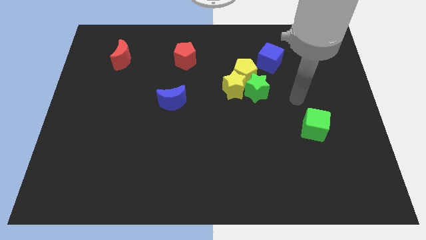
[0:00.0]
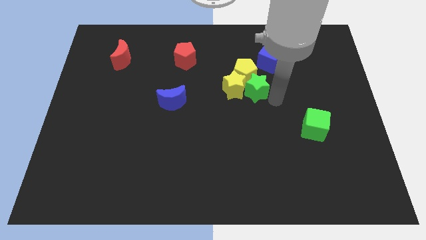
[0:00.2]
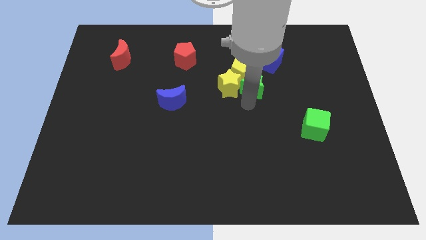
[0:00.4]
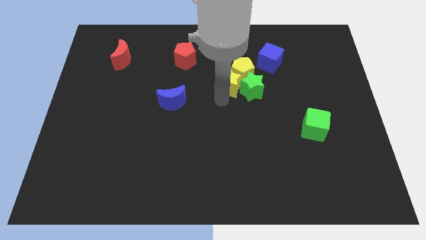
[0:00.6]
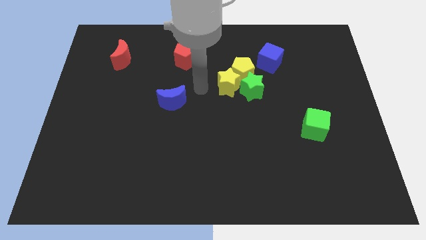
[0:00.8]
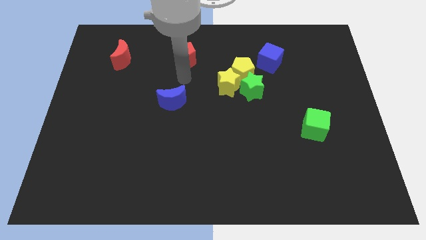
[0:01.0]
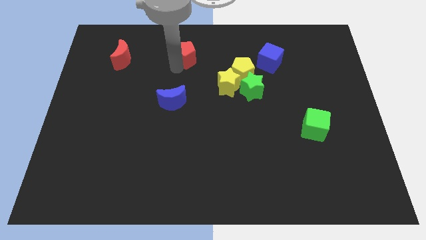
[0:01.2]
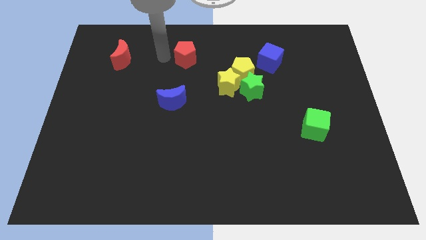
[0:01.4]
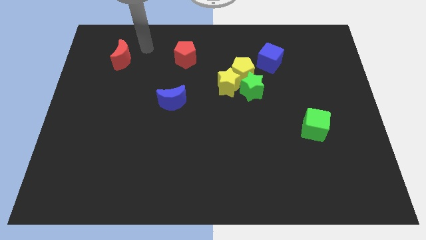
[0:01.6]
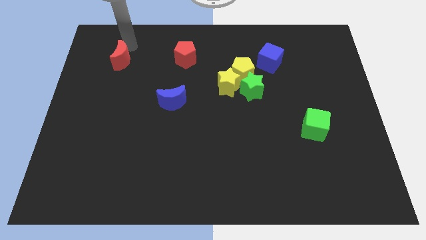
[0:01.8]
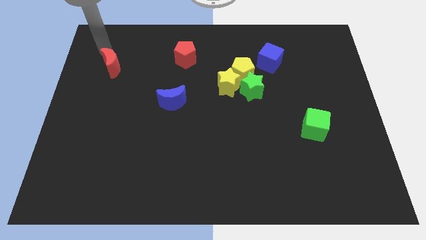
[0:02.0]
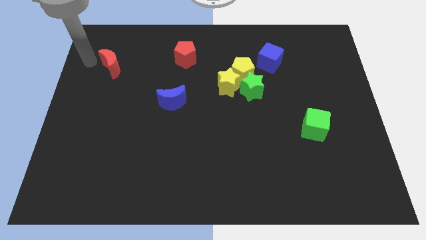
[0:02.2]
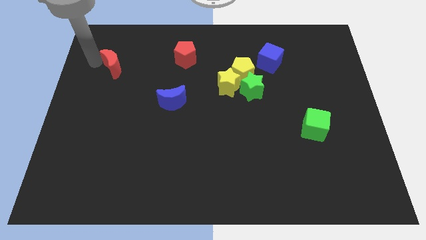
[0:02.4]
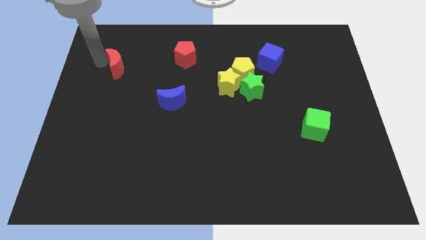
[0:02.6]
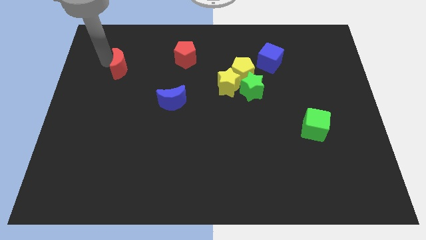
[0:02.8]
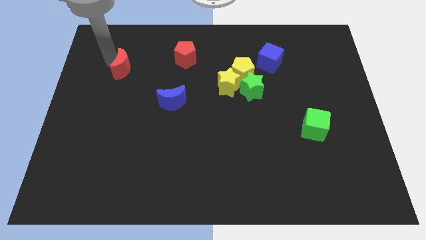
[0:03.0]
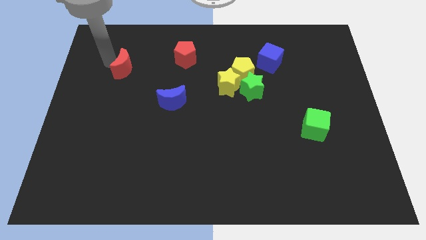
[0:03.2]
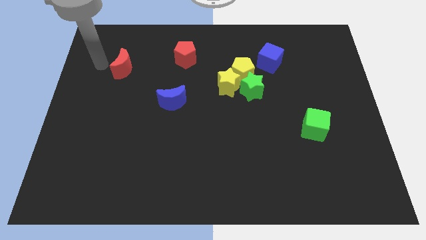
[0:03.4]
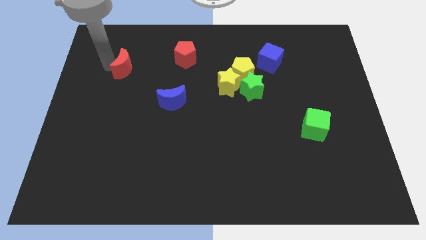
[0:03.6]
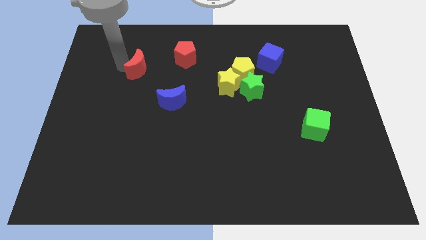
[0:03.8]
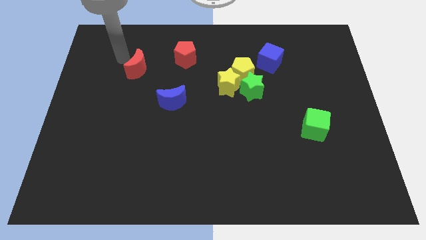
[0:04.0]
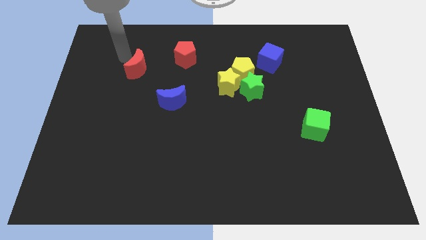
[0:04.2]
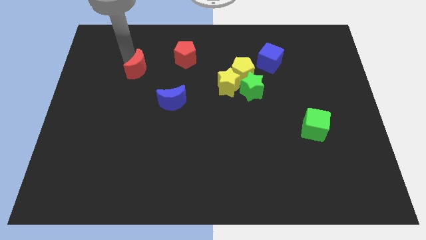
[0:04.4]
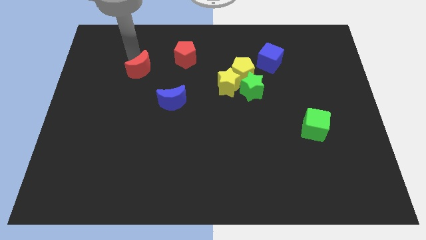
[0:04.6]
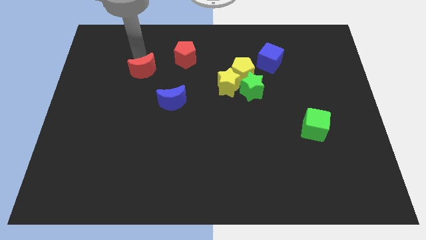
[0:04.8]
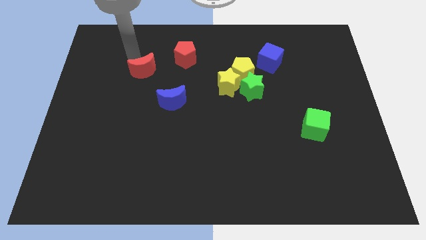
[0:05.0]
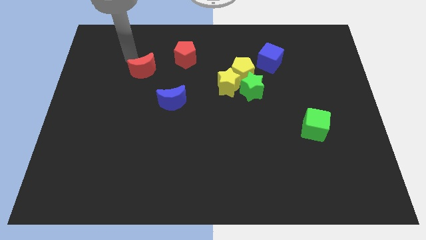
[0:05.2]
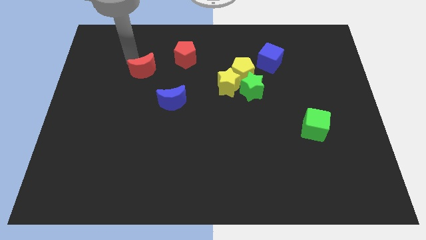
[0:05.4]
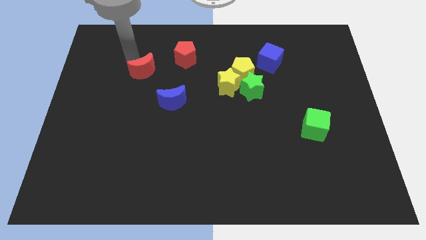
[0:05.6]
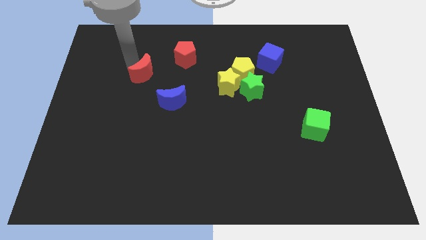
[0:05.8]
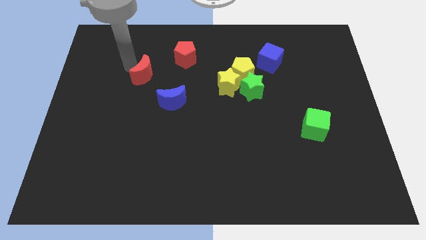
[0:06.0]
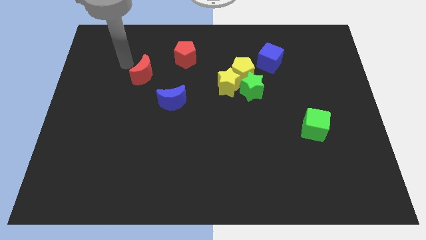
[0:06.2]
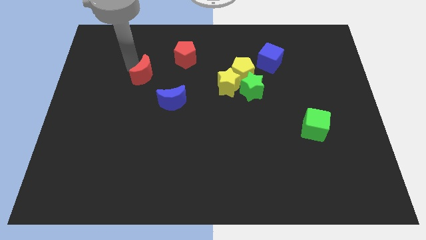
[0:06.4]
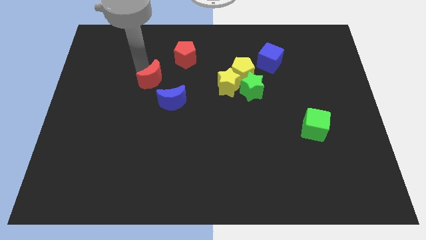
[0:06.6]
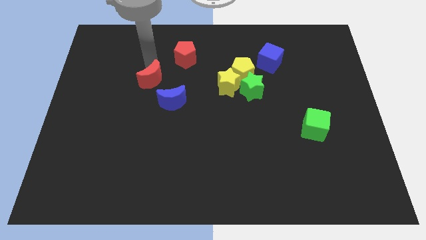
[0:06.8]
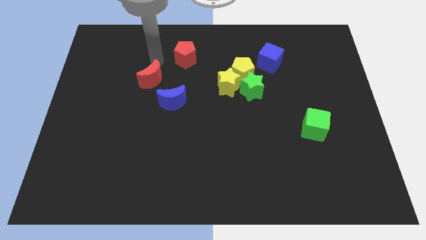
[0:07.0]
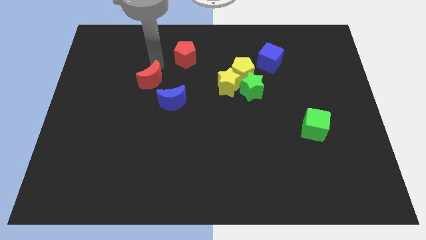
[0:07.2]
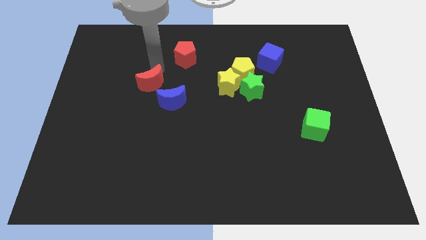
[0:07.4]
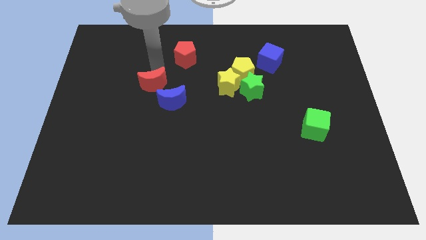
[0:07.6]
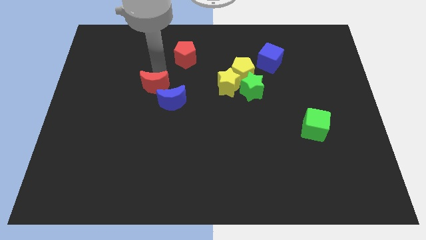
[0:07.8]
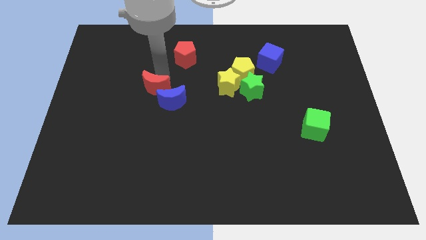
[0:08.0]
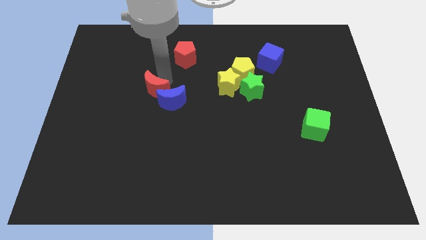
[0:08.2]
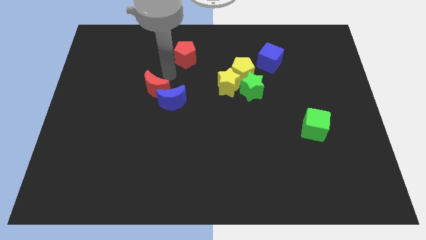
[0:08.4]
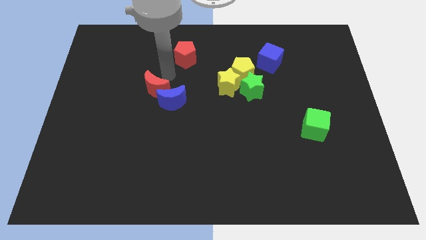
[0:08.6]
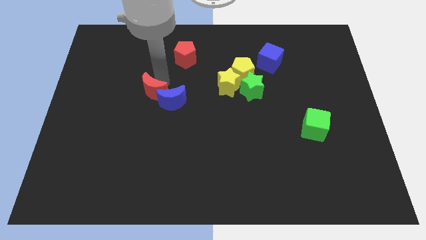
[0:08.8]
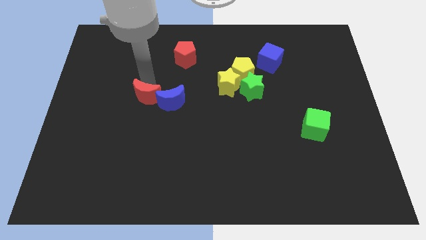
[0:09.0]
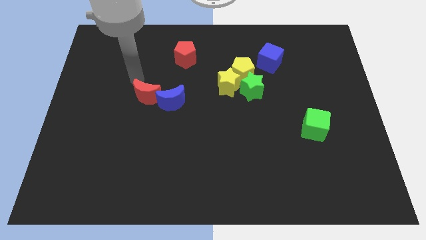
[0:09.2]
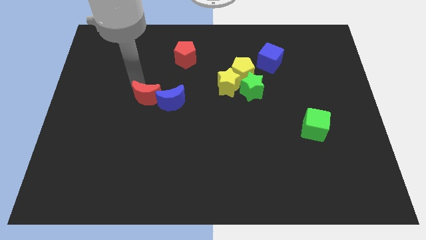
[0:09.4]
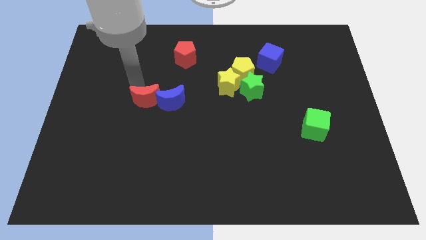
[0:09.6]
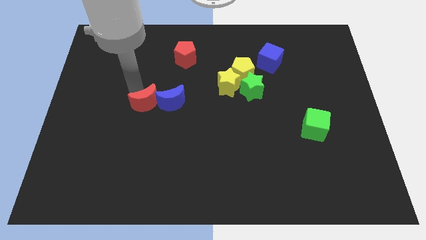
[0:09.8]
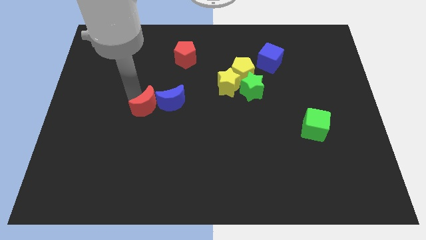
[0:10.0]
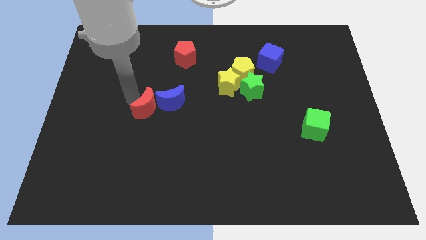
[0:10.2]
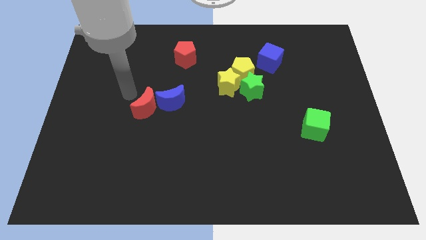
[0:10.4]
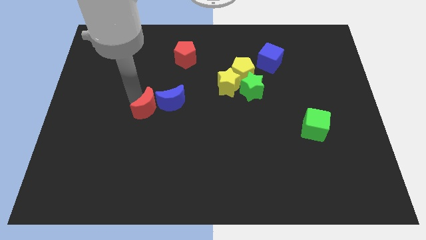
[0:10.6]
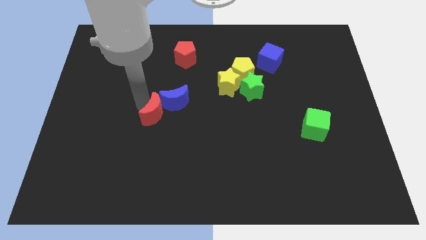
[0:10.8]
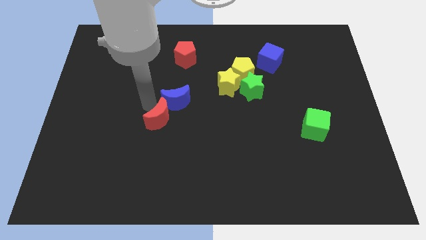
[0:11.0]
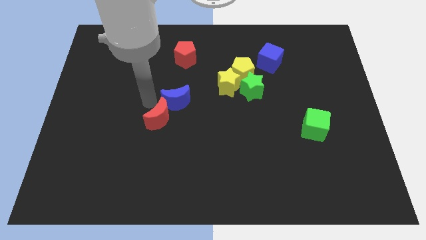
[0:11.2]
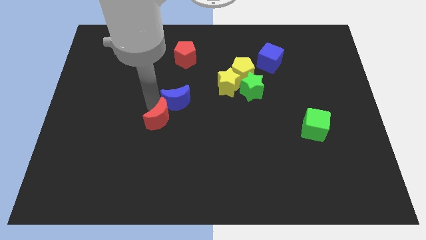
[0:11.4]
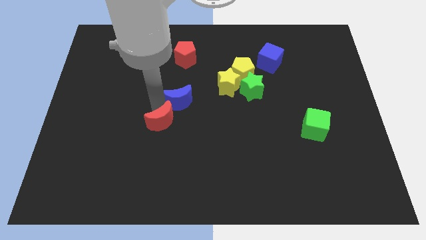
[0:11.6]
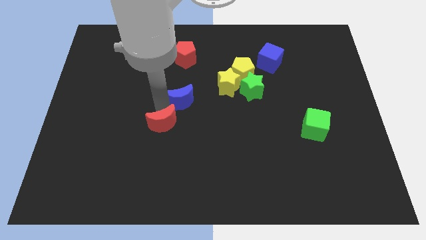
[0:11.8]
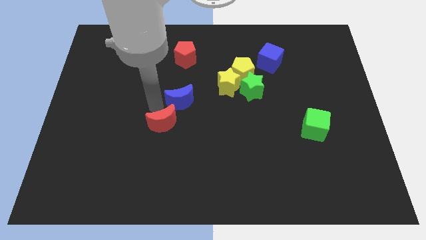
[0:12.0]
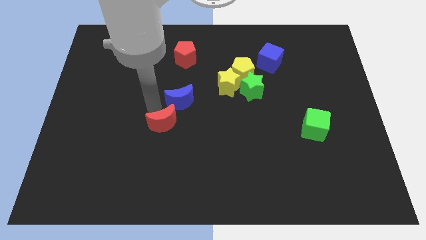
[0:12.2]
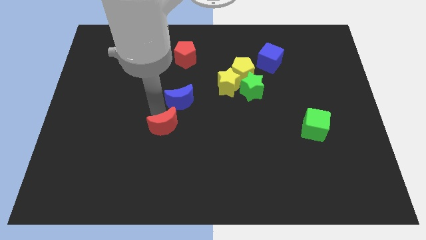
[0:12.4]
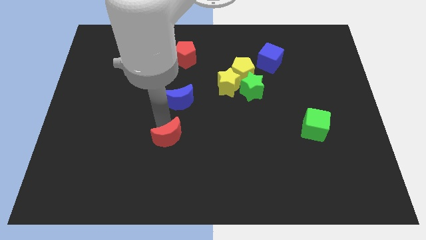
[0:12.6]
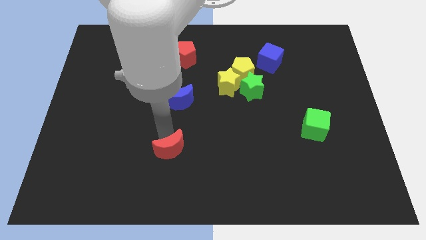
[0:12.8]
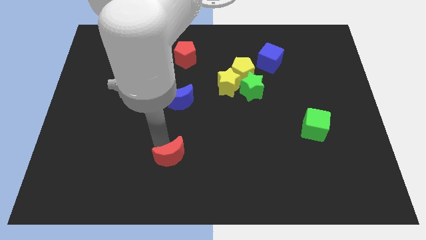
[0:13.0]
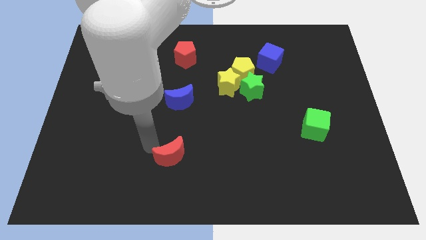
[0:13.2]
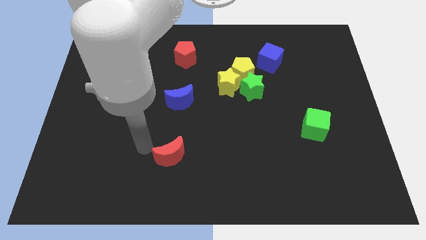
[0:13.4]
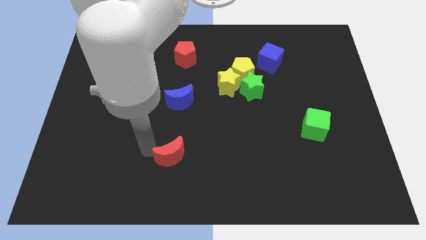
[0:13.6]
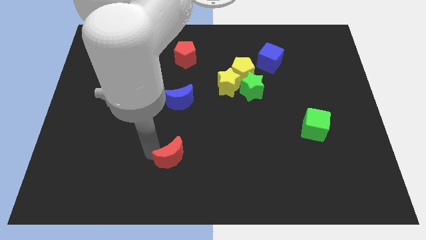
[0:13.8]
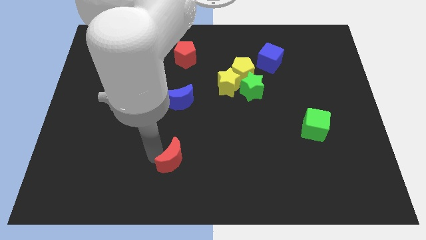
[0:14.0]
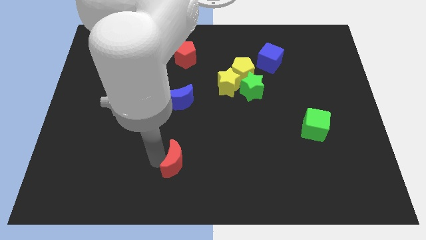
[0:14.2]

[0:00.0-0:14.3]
slide the red moon to the bottom side

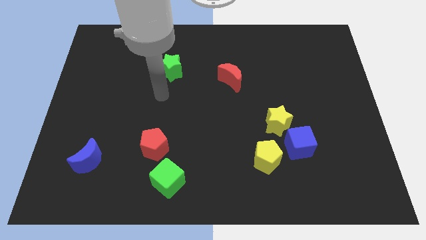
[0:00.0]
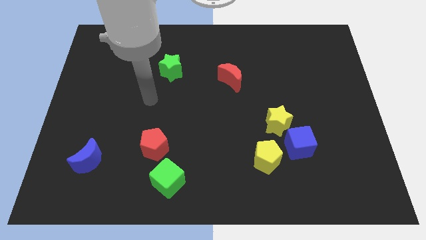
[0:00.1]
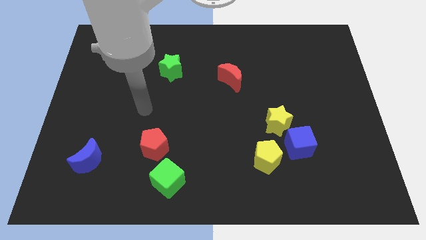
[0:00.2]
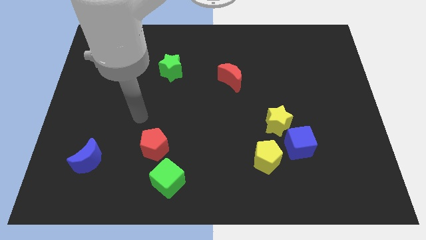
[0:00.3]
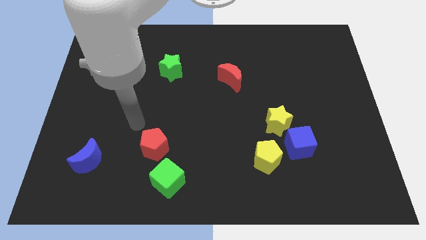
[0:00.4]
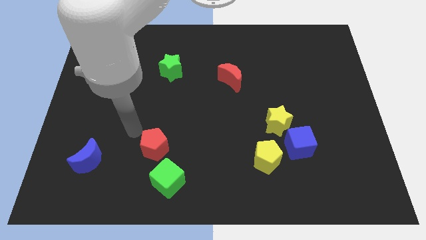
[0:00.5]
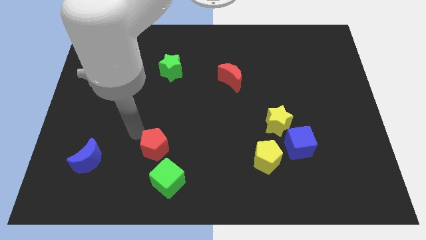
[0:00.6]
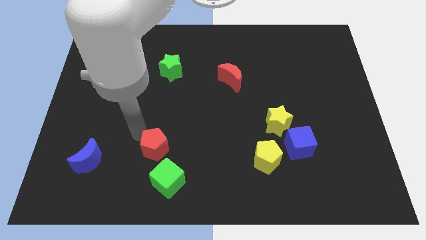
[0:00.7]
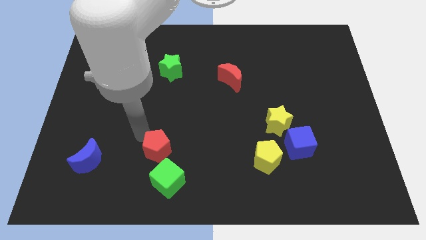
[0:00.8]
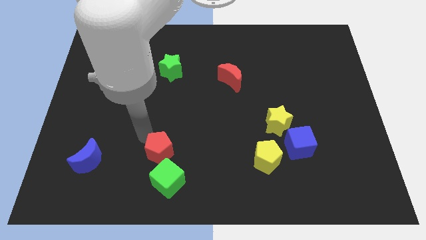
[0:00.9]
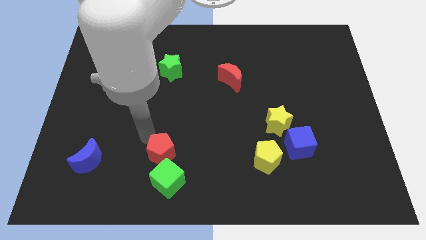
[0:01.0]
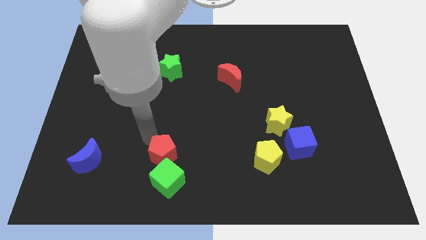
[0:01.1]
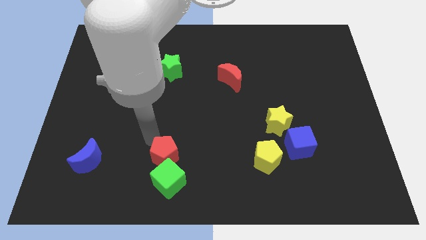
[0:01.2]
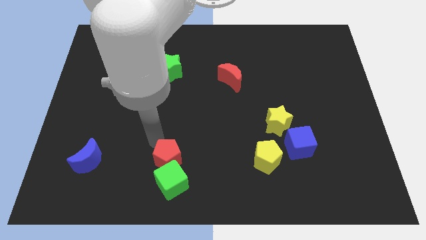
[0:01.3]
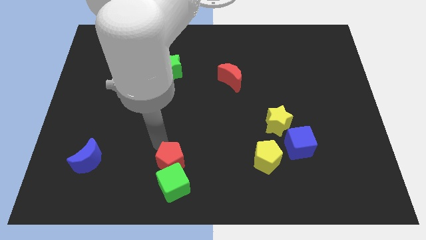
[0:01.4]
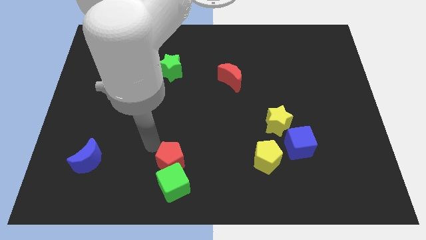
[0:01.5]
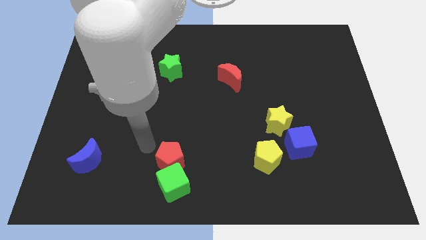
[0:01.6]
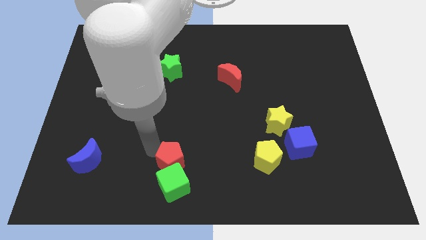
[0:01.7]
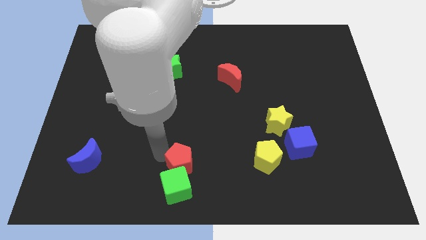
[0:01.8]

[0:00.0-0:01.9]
put the red pentagon to the bottom side
